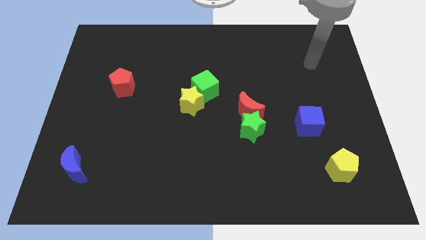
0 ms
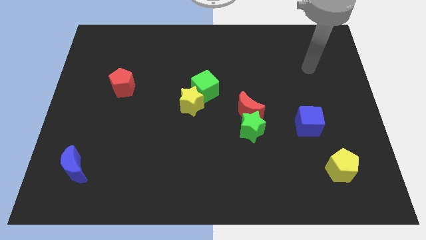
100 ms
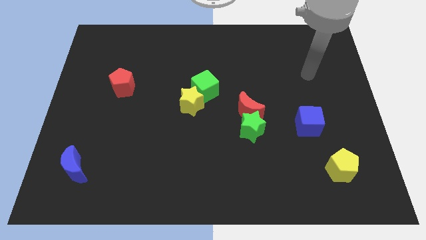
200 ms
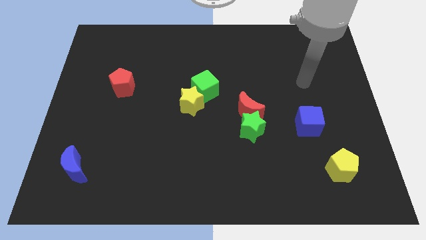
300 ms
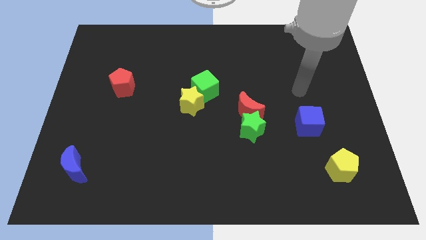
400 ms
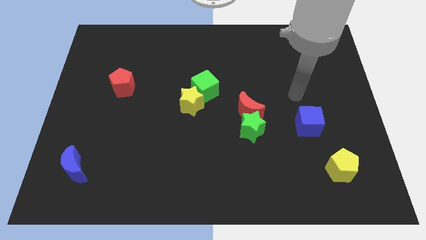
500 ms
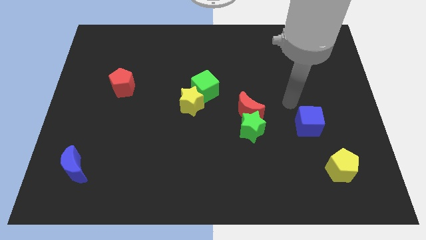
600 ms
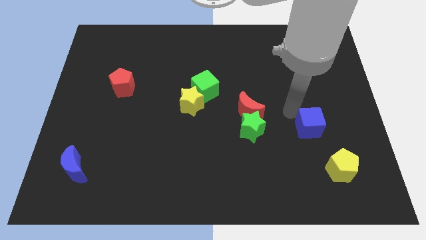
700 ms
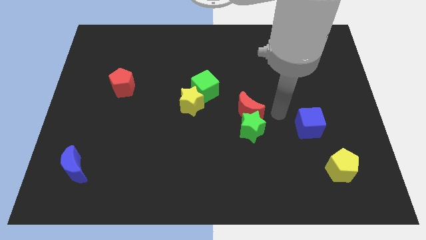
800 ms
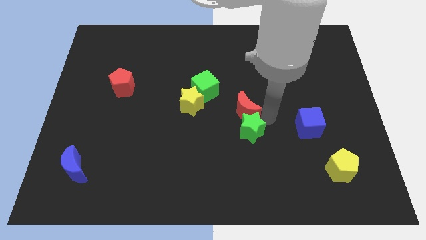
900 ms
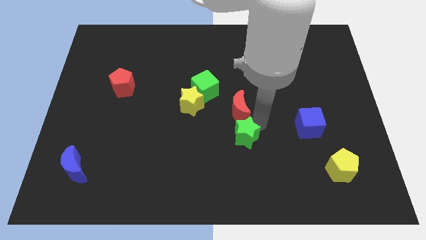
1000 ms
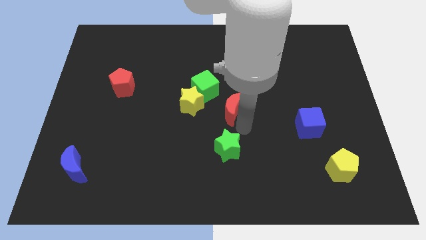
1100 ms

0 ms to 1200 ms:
move the red moon away from the green star

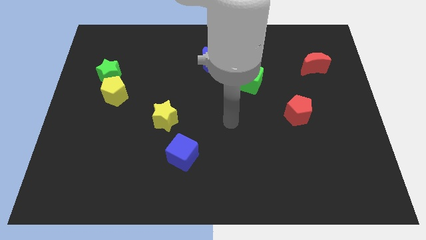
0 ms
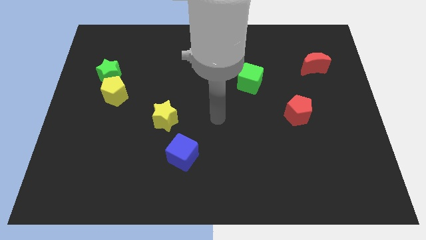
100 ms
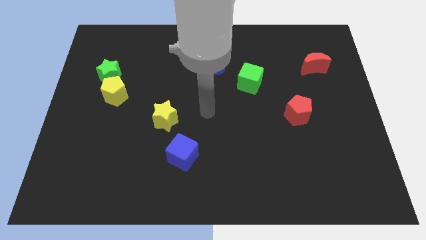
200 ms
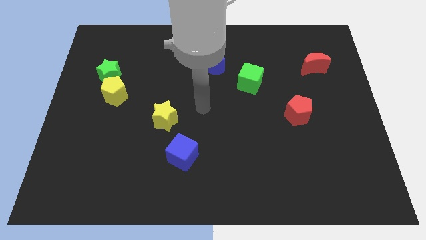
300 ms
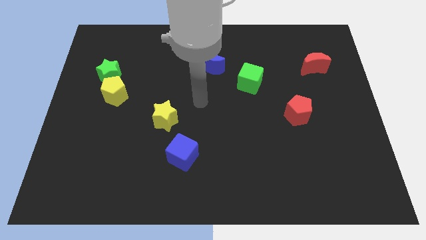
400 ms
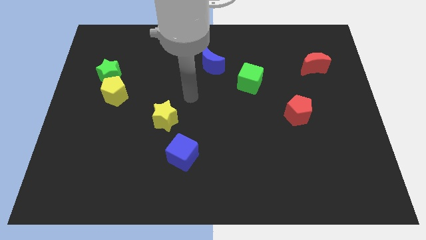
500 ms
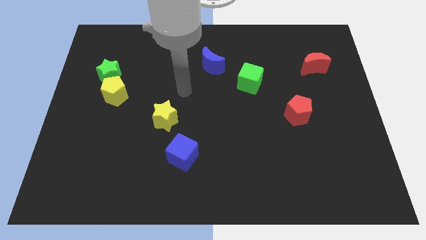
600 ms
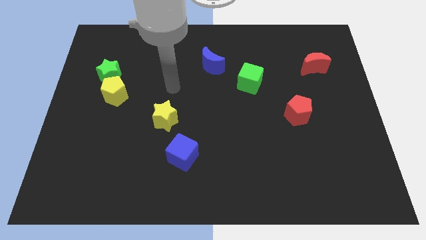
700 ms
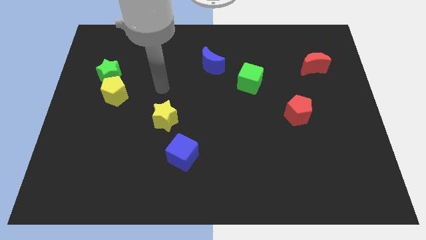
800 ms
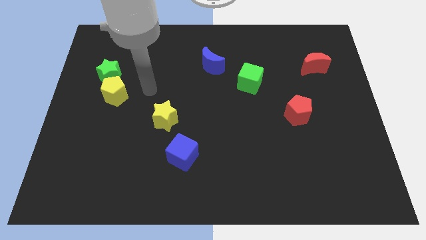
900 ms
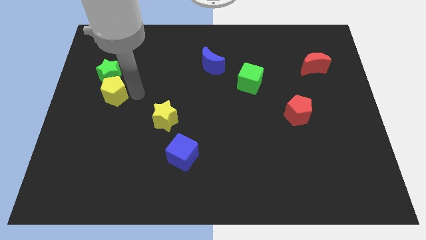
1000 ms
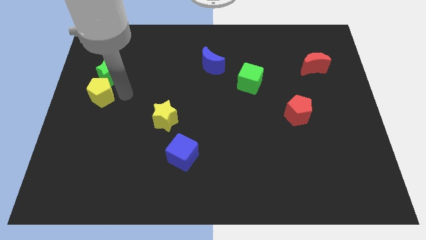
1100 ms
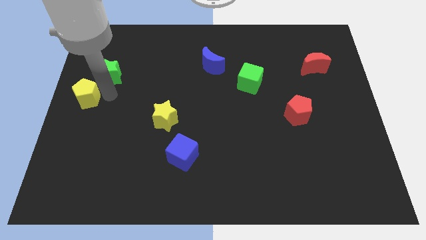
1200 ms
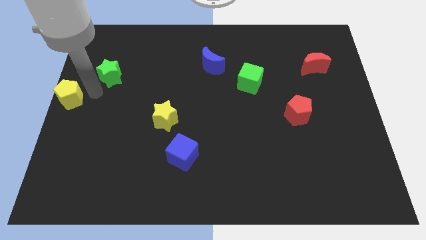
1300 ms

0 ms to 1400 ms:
pull the green star apart from the yellow pentagon

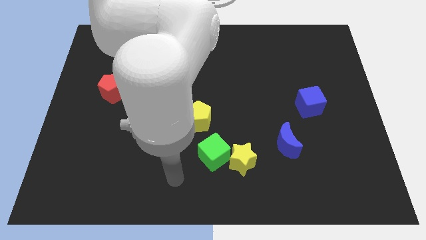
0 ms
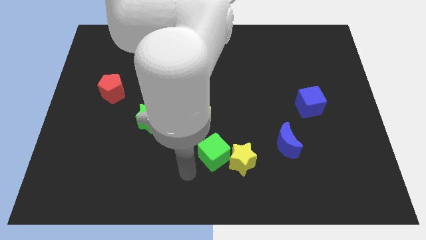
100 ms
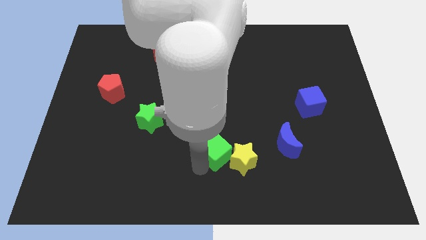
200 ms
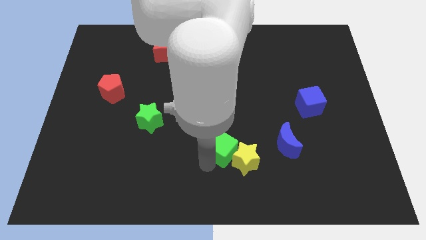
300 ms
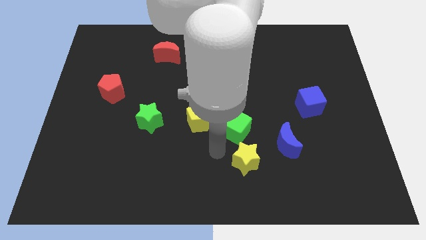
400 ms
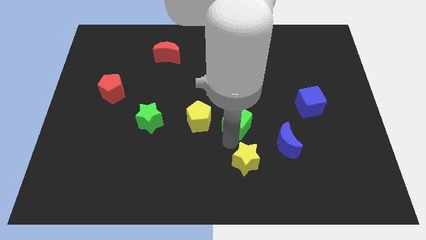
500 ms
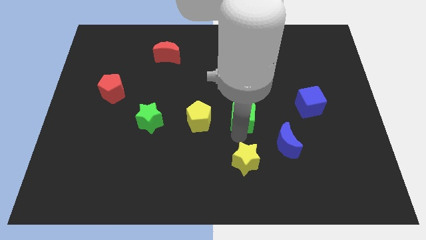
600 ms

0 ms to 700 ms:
move the yellow star away from the green cube

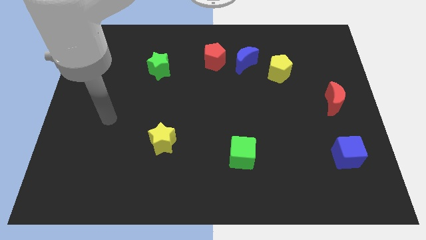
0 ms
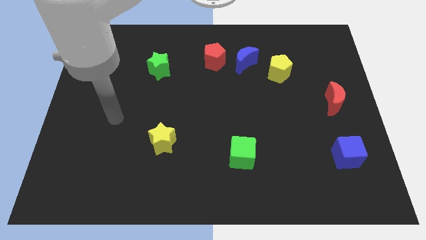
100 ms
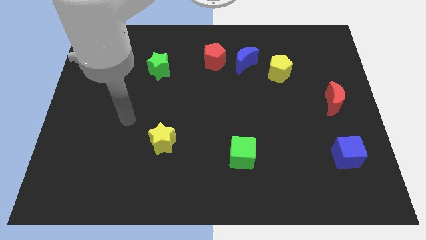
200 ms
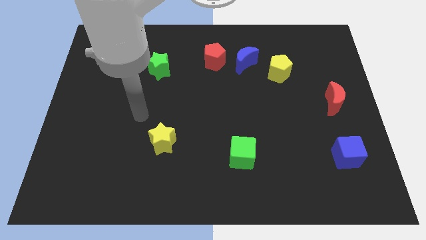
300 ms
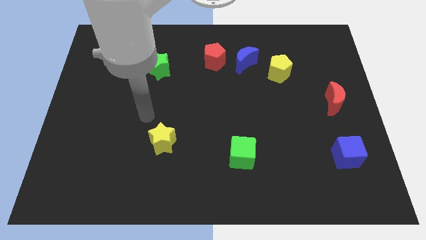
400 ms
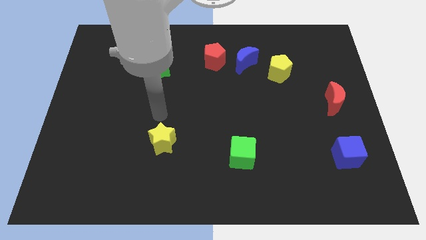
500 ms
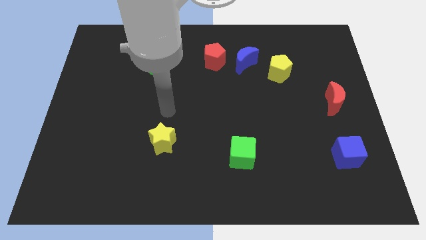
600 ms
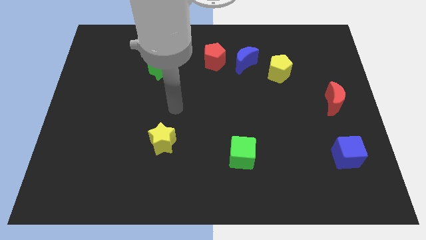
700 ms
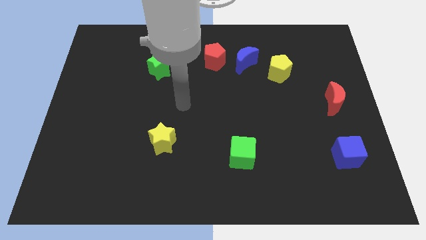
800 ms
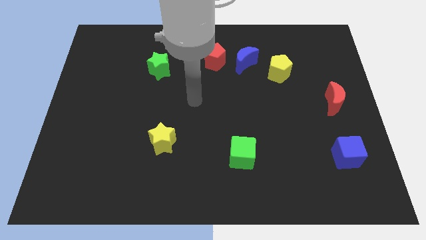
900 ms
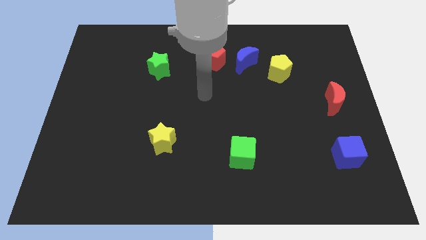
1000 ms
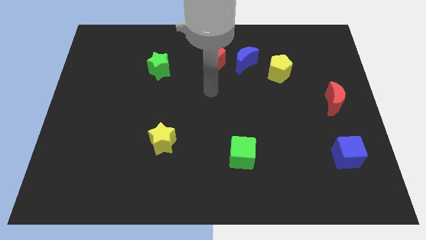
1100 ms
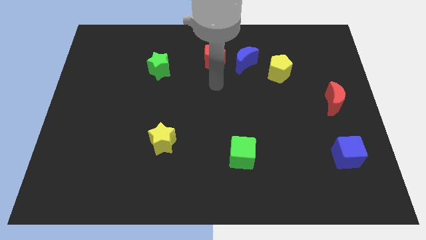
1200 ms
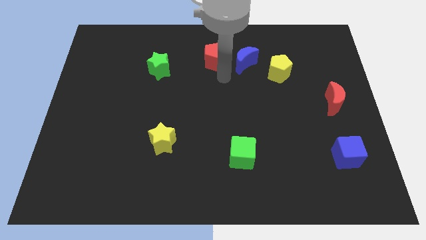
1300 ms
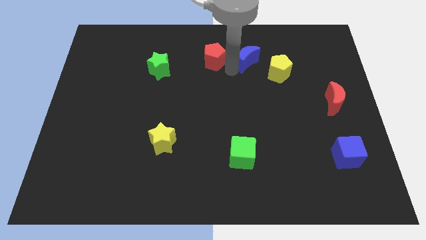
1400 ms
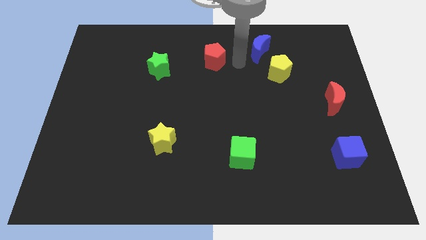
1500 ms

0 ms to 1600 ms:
separate the red pentagon from the blue moon

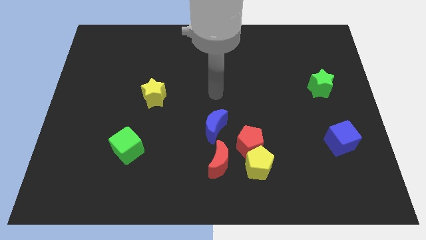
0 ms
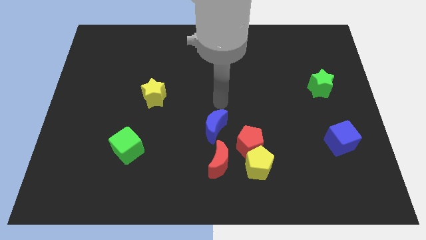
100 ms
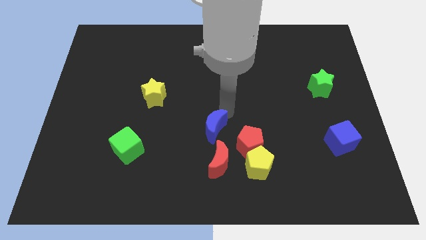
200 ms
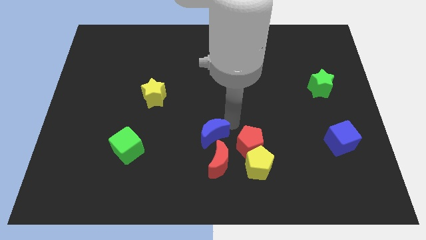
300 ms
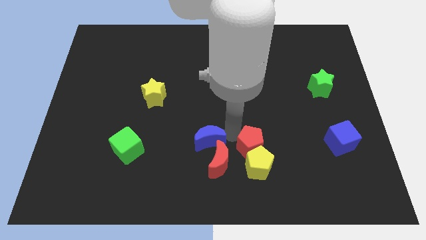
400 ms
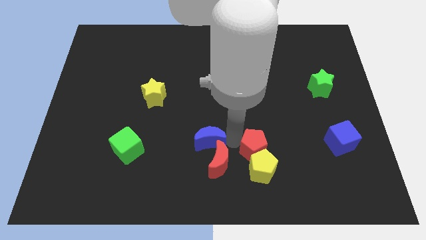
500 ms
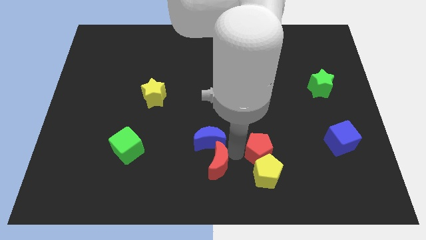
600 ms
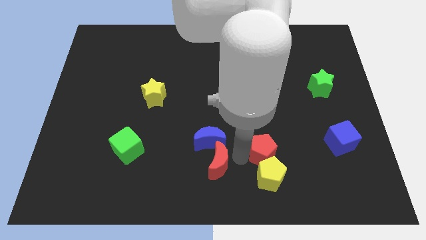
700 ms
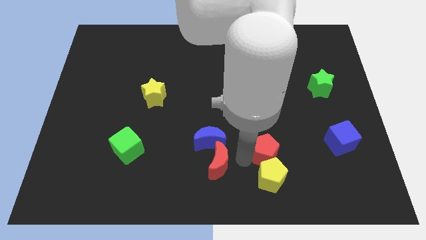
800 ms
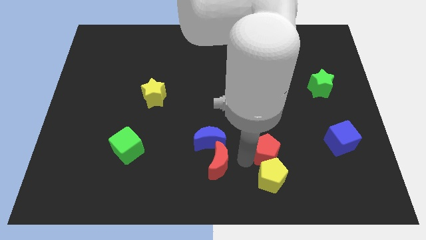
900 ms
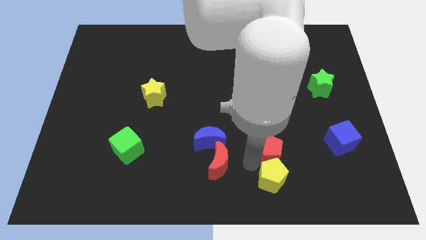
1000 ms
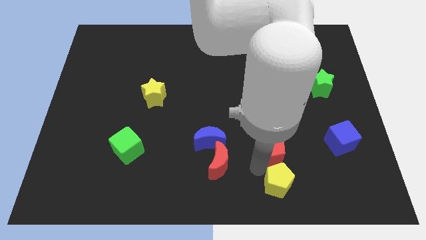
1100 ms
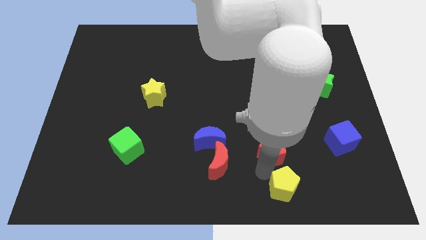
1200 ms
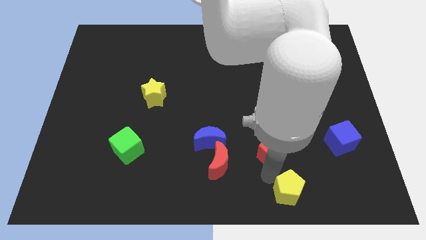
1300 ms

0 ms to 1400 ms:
pull the yellow pentagon apart from the red pentagon and red moon

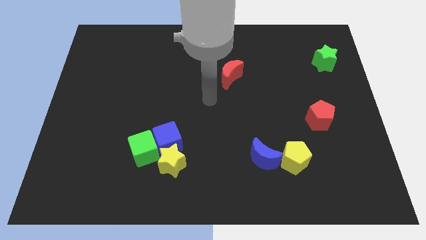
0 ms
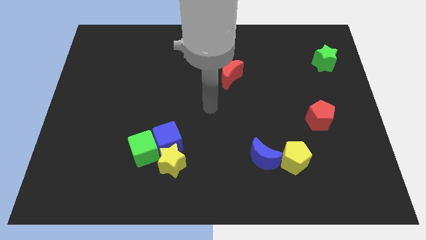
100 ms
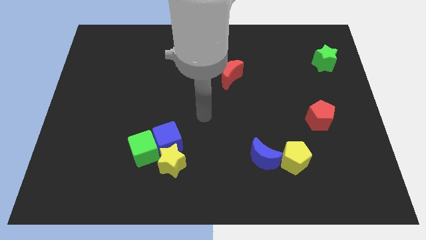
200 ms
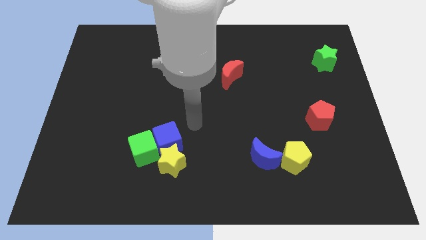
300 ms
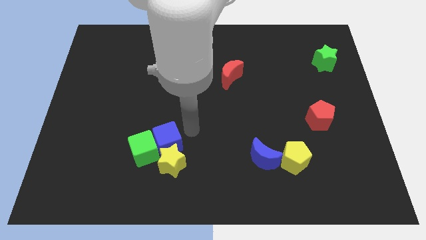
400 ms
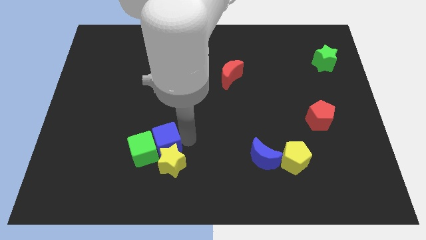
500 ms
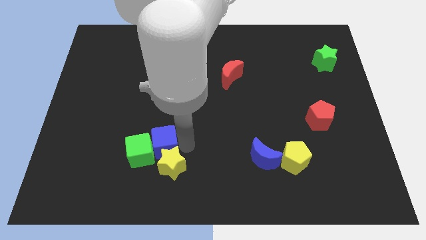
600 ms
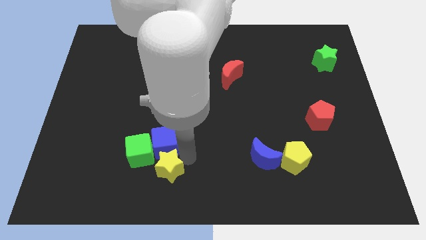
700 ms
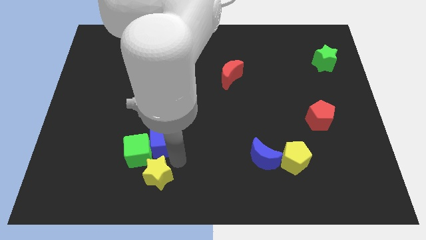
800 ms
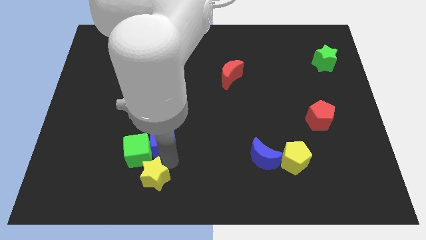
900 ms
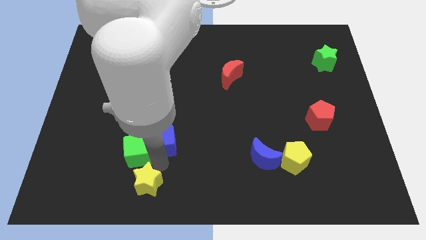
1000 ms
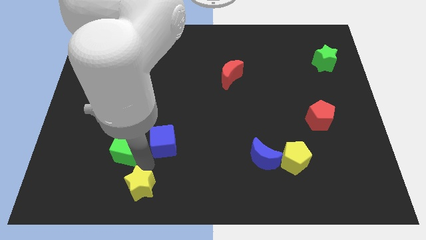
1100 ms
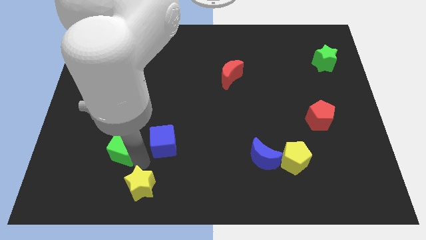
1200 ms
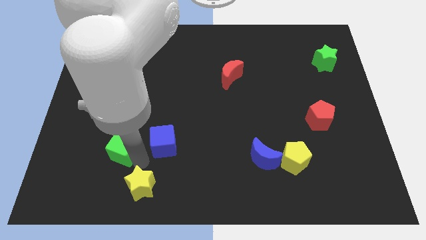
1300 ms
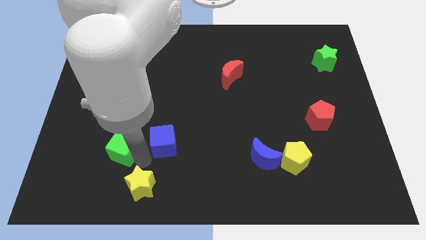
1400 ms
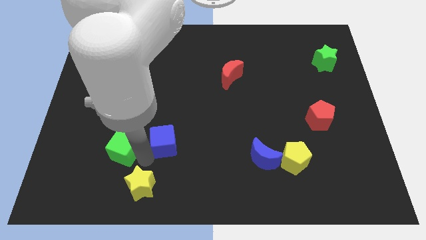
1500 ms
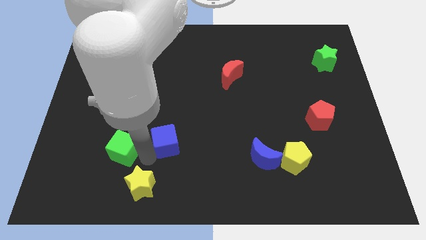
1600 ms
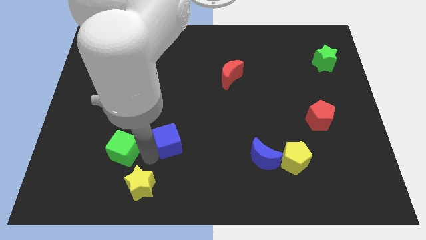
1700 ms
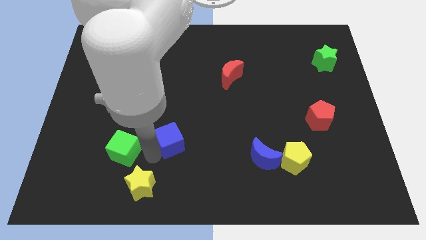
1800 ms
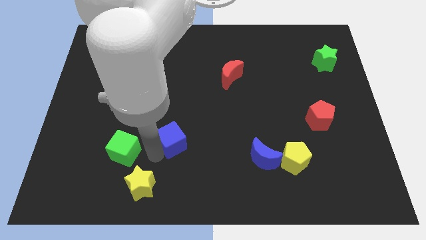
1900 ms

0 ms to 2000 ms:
pull the blue cube apart from the yellow star and green cube

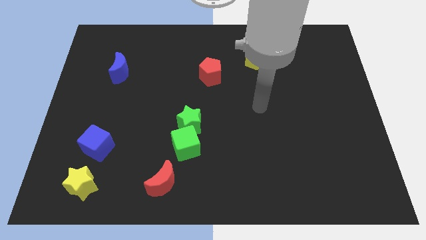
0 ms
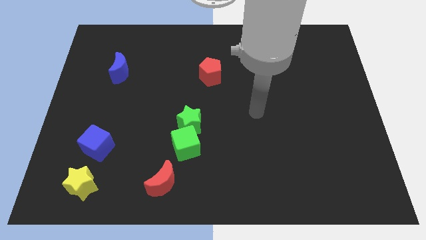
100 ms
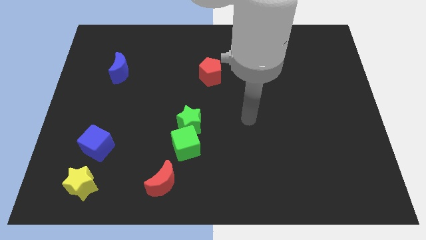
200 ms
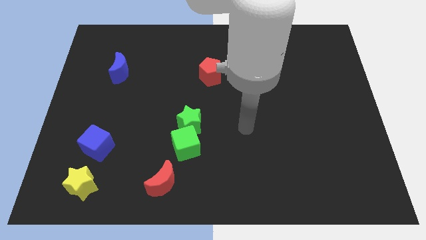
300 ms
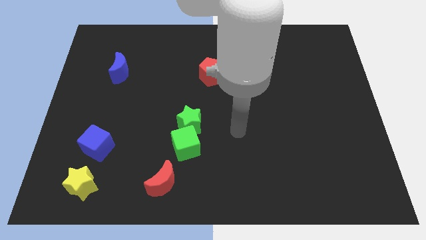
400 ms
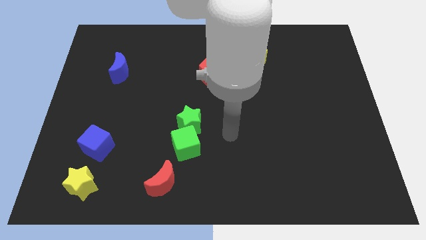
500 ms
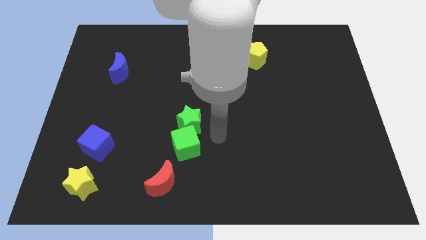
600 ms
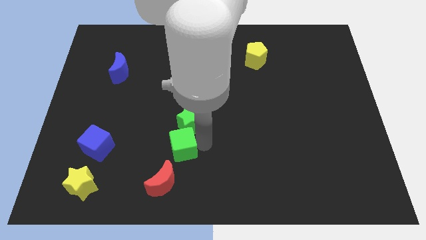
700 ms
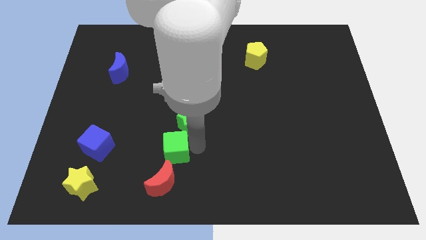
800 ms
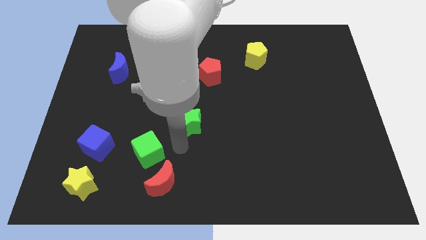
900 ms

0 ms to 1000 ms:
move the green star away from the green cube

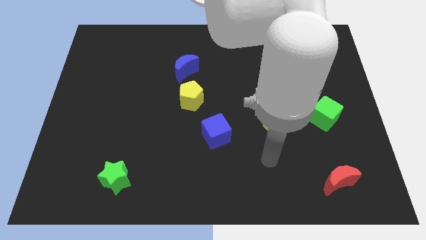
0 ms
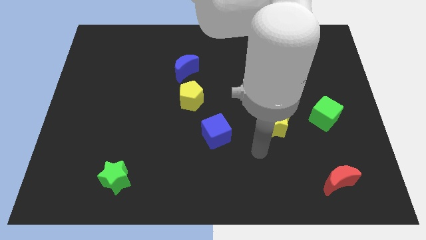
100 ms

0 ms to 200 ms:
move the blue moon away from the yellow pentagon
